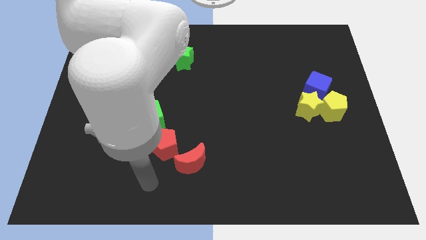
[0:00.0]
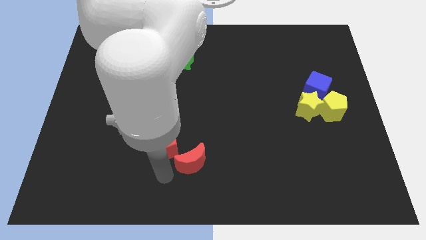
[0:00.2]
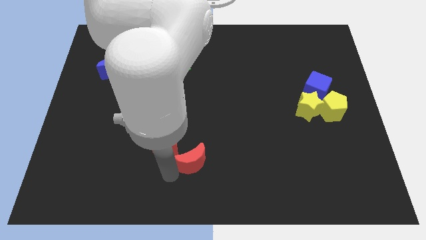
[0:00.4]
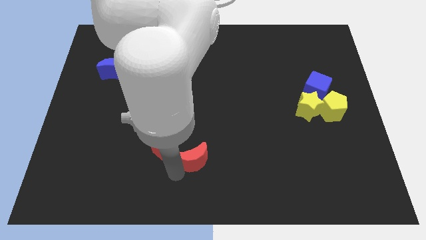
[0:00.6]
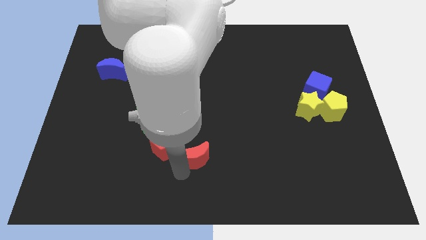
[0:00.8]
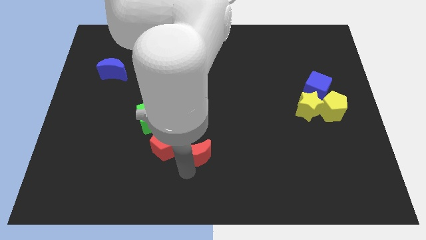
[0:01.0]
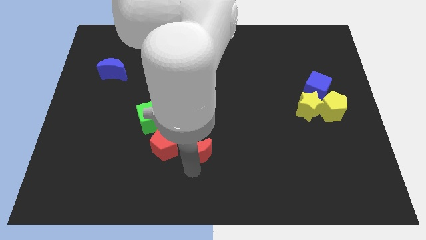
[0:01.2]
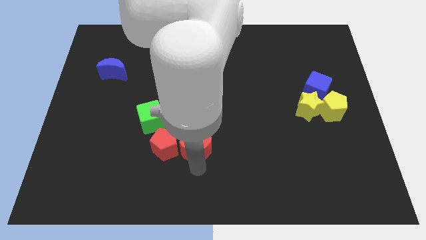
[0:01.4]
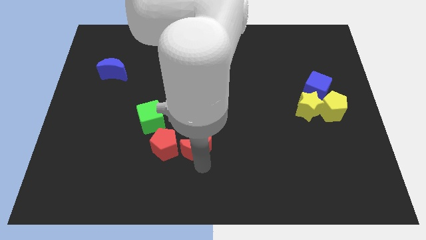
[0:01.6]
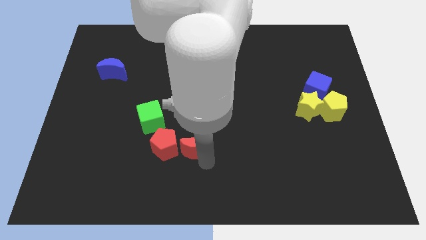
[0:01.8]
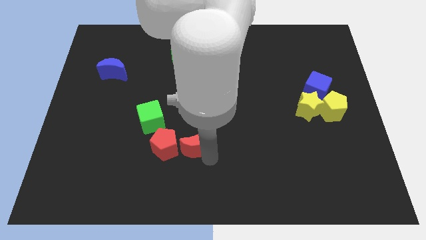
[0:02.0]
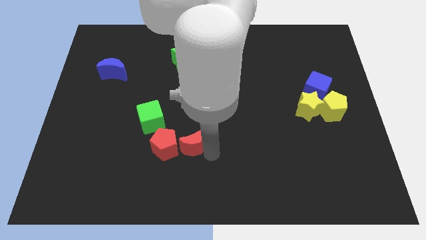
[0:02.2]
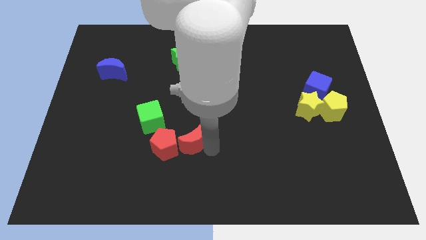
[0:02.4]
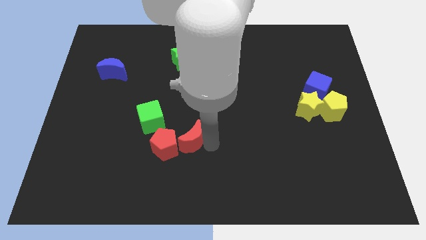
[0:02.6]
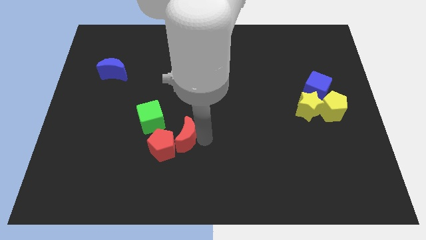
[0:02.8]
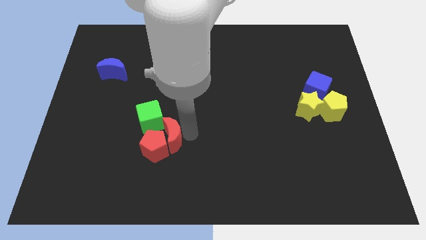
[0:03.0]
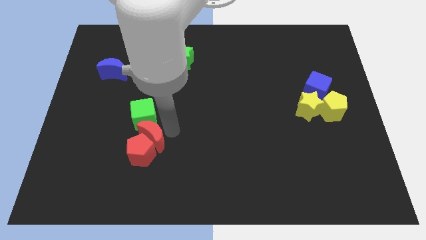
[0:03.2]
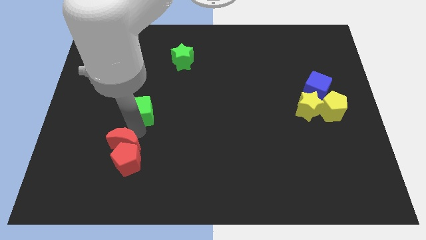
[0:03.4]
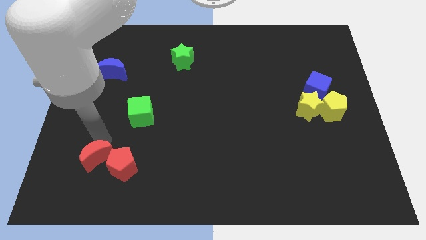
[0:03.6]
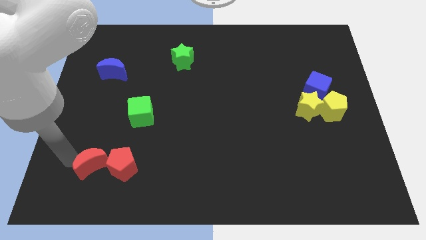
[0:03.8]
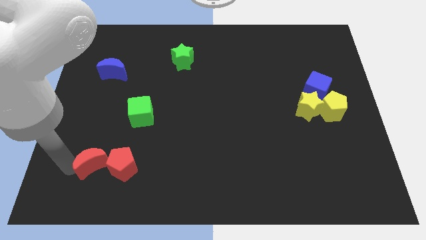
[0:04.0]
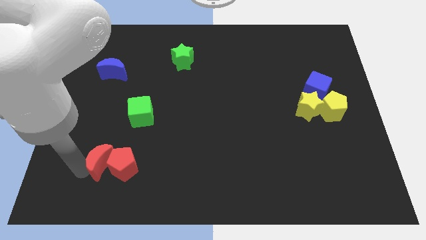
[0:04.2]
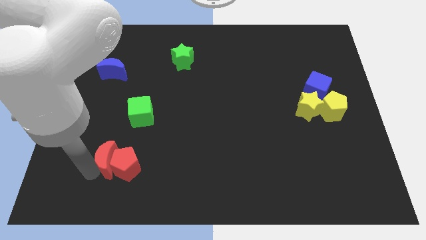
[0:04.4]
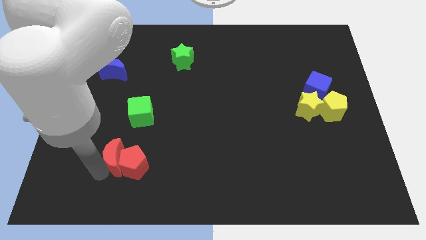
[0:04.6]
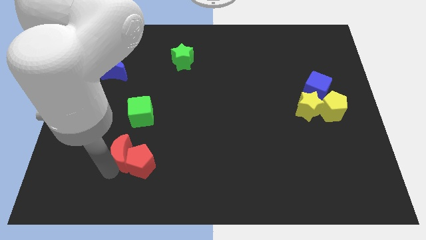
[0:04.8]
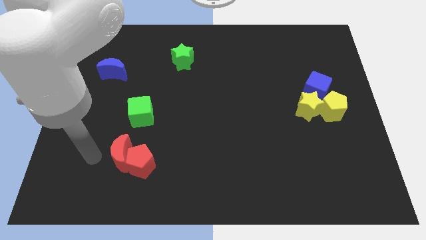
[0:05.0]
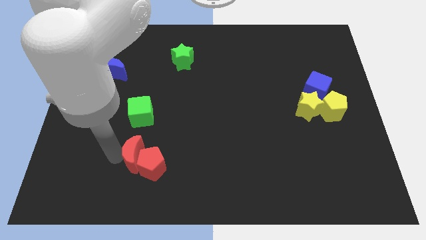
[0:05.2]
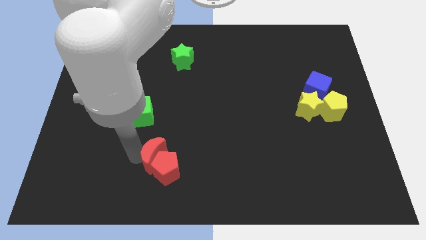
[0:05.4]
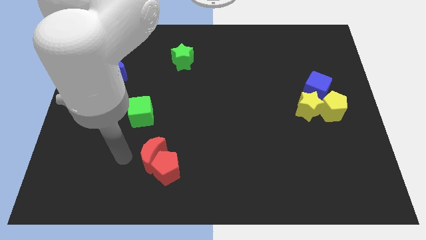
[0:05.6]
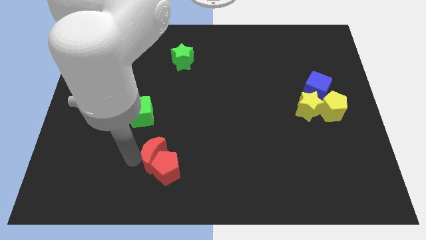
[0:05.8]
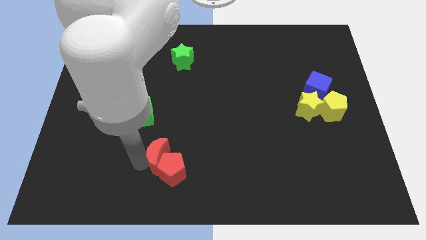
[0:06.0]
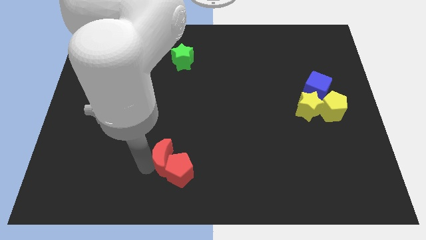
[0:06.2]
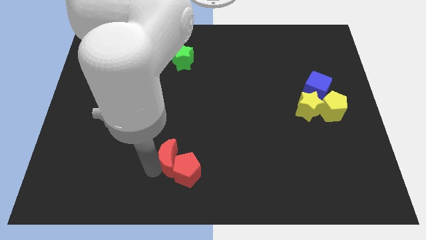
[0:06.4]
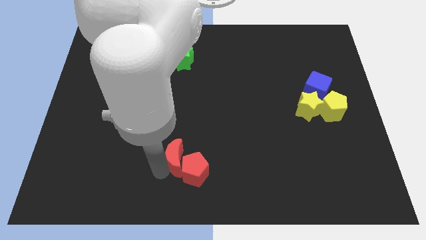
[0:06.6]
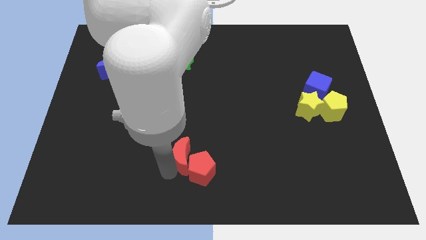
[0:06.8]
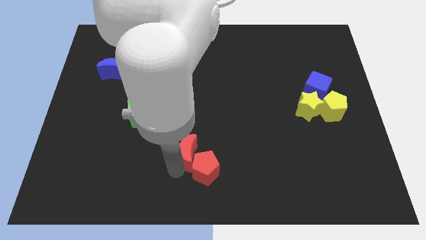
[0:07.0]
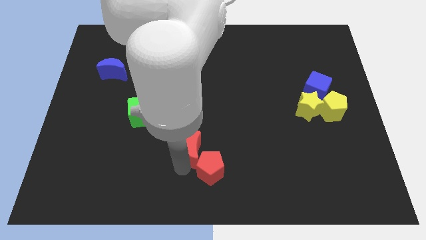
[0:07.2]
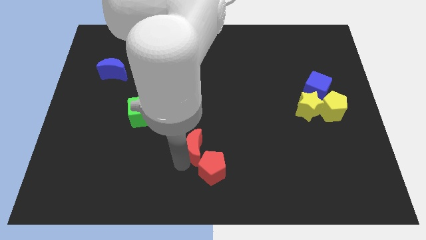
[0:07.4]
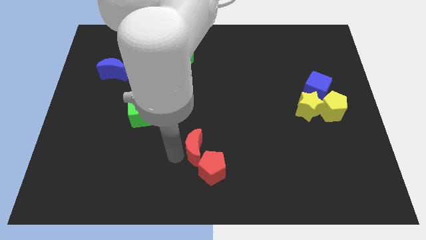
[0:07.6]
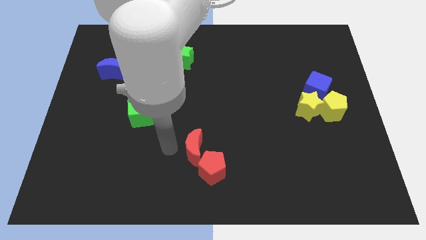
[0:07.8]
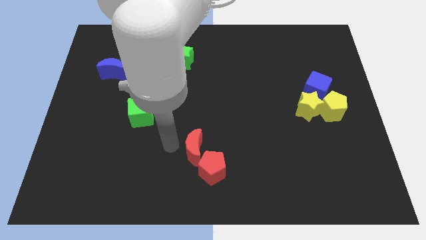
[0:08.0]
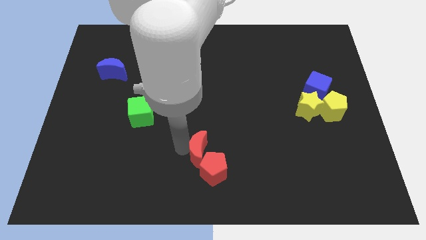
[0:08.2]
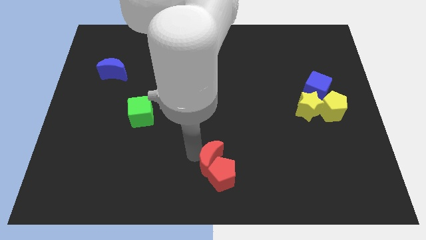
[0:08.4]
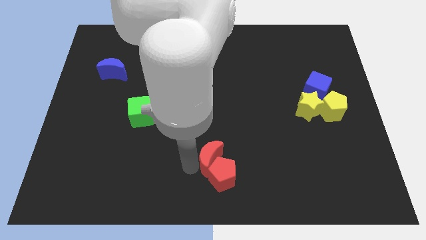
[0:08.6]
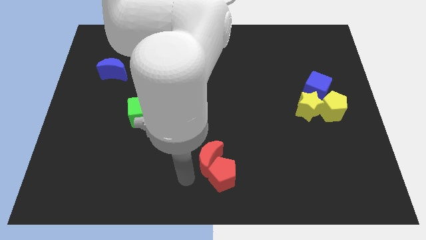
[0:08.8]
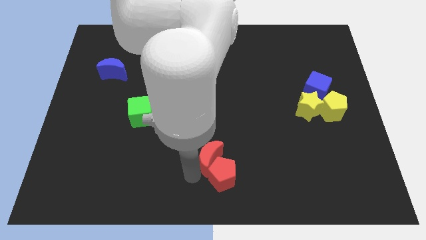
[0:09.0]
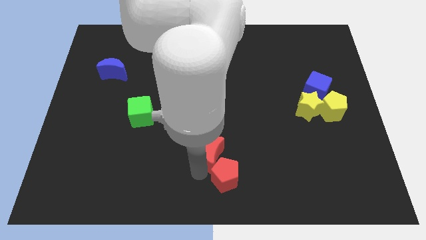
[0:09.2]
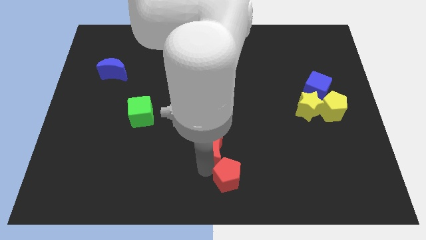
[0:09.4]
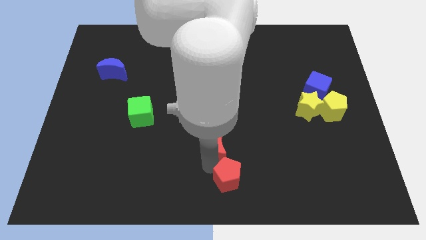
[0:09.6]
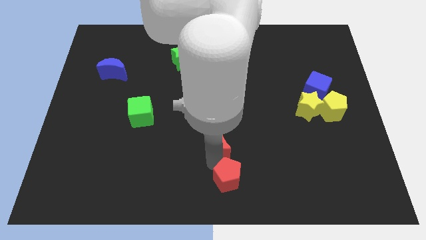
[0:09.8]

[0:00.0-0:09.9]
slide the red moon a little bit diagonally up and right

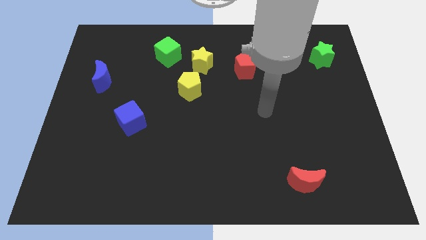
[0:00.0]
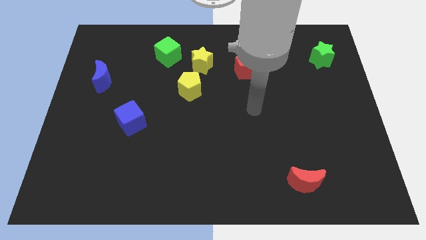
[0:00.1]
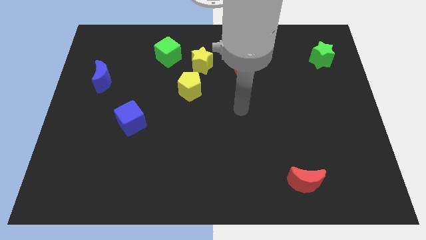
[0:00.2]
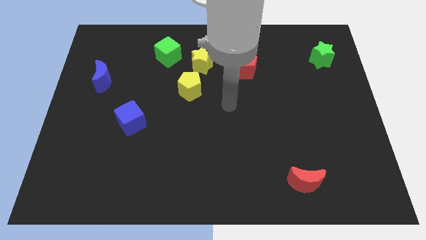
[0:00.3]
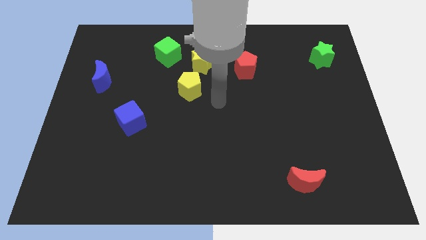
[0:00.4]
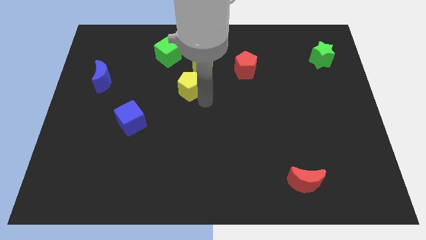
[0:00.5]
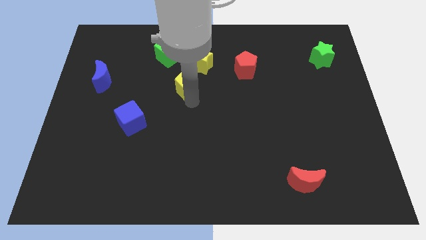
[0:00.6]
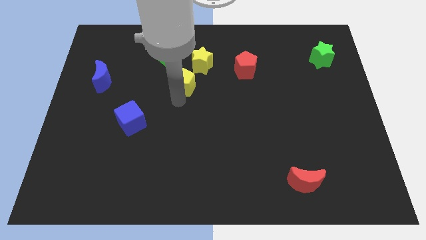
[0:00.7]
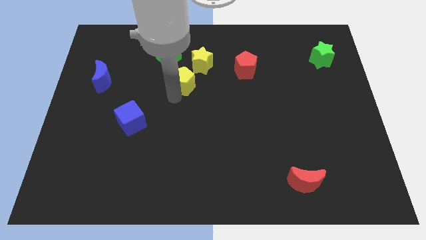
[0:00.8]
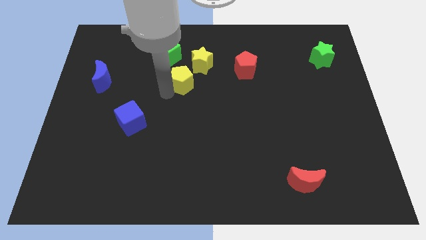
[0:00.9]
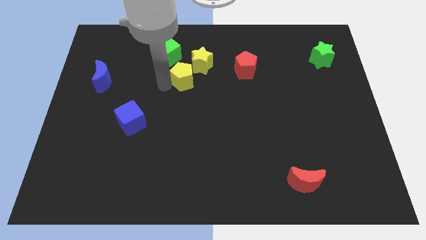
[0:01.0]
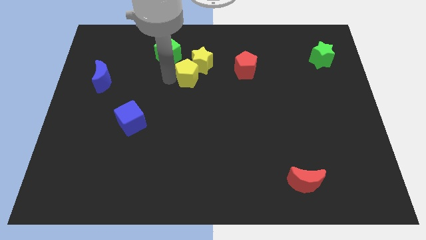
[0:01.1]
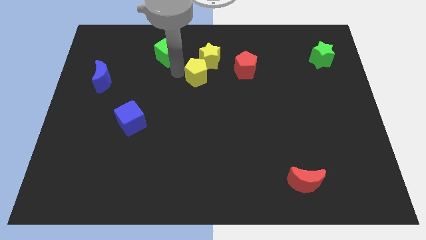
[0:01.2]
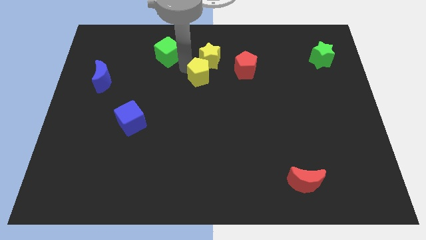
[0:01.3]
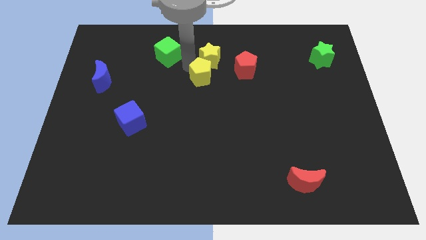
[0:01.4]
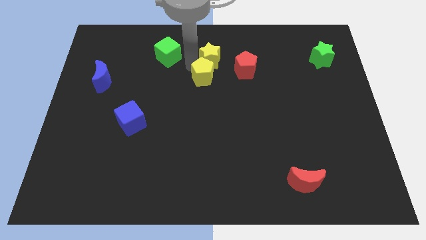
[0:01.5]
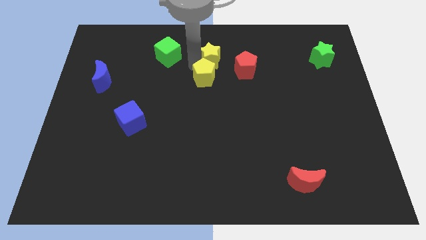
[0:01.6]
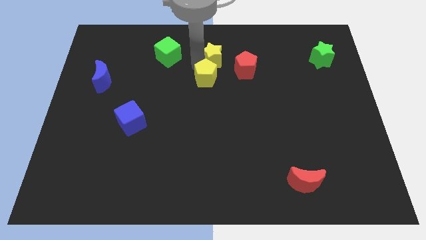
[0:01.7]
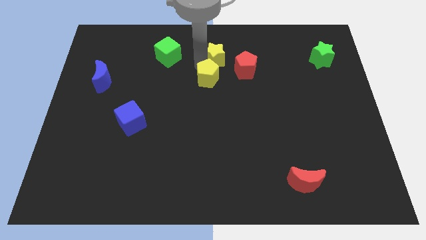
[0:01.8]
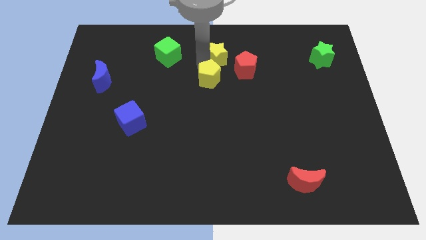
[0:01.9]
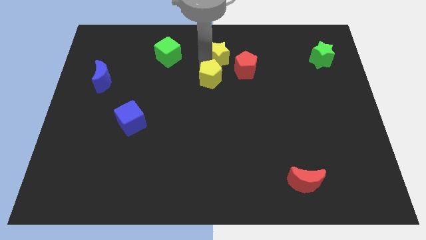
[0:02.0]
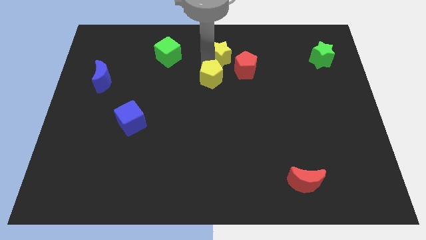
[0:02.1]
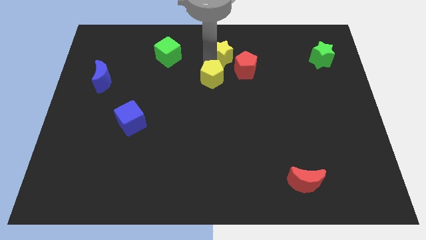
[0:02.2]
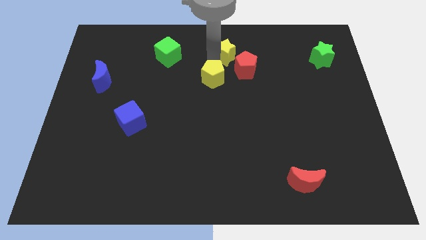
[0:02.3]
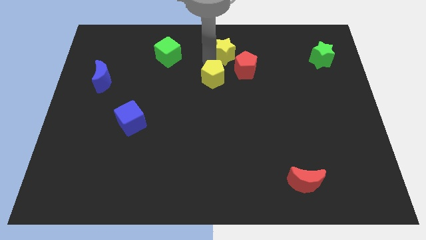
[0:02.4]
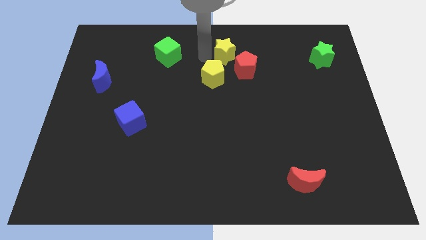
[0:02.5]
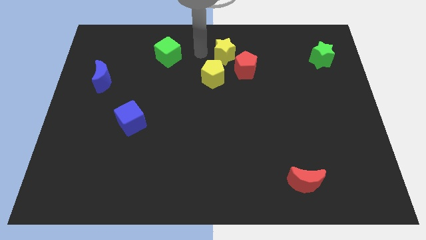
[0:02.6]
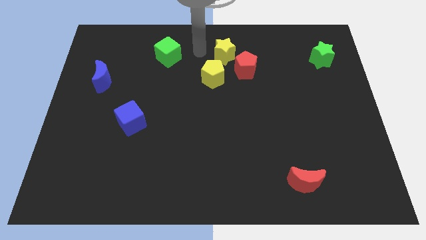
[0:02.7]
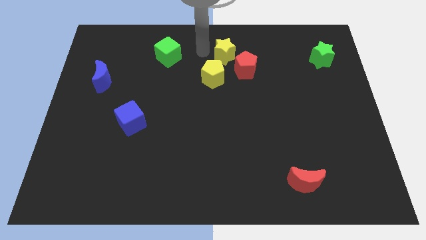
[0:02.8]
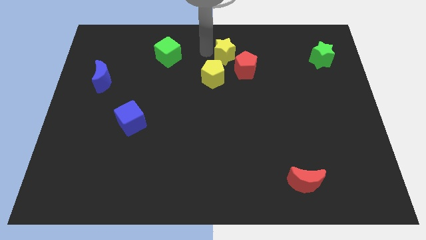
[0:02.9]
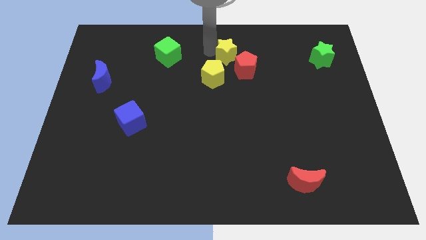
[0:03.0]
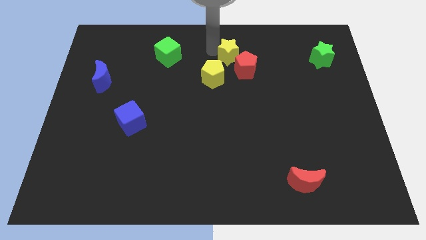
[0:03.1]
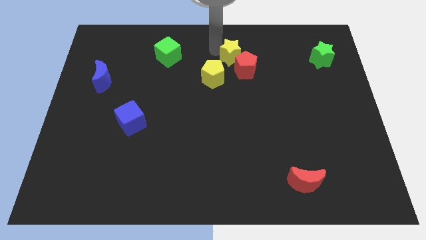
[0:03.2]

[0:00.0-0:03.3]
slide the yellow star right a little
